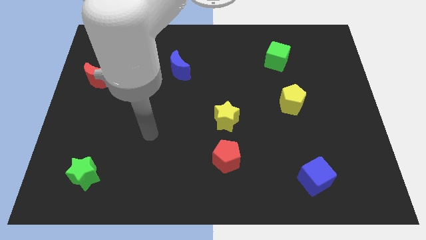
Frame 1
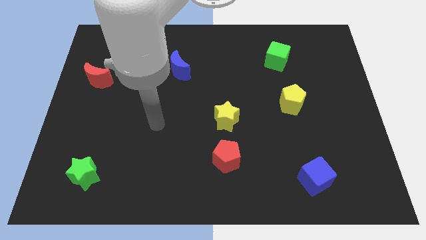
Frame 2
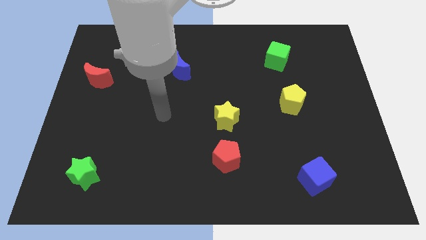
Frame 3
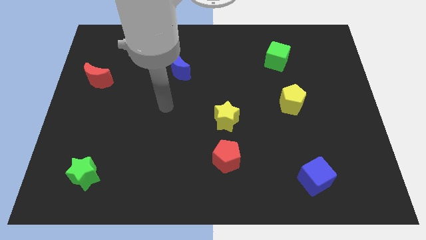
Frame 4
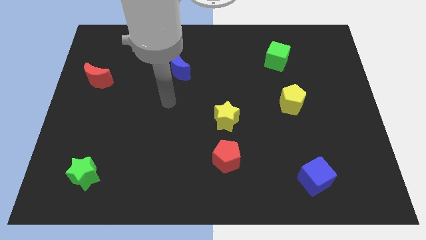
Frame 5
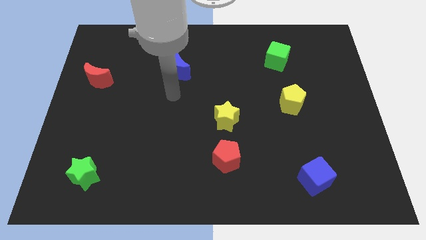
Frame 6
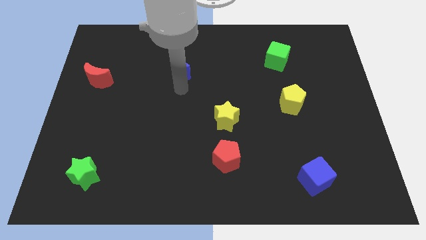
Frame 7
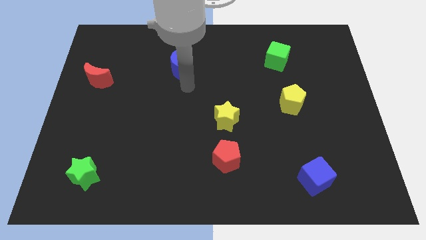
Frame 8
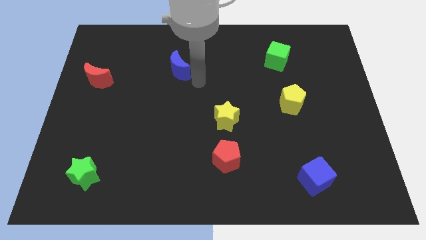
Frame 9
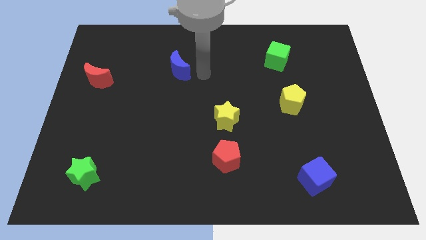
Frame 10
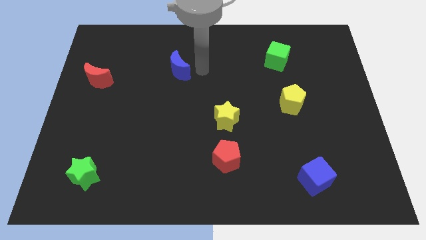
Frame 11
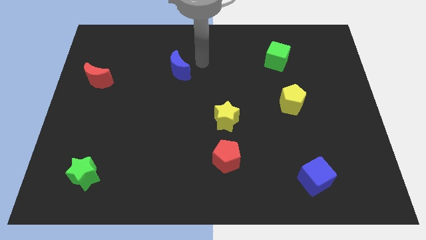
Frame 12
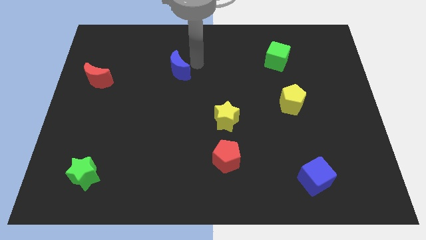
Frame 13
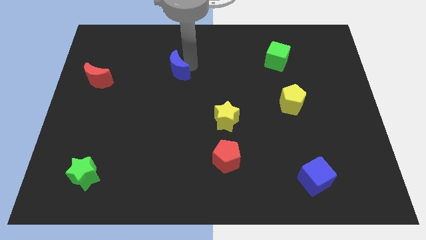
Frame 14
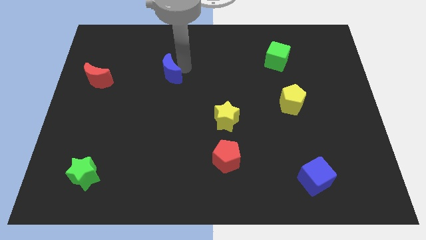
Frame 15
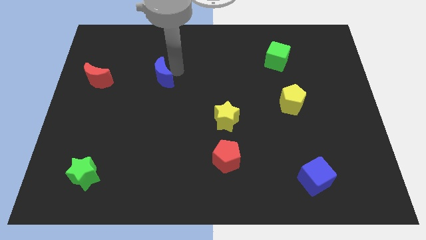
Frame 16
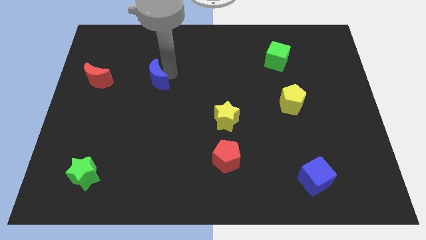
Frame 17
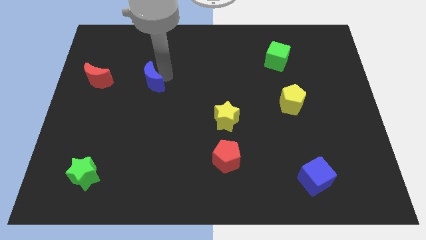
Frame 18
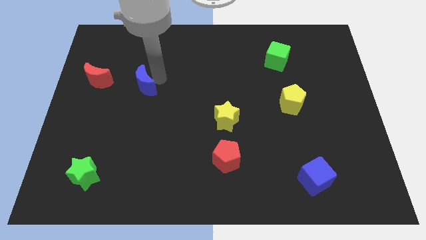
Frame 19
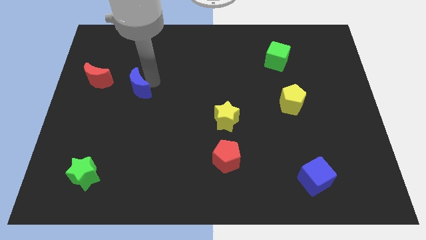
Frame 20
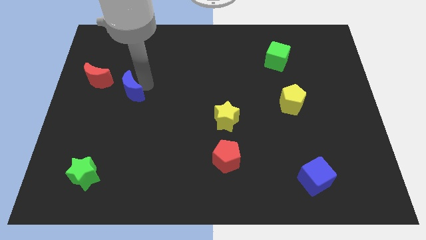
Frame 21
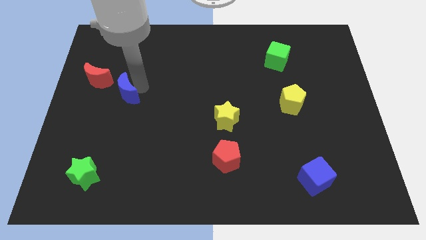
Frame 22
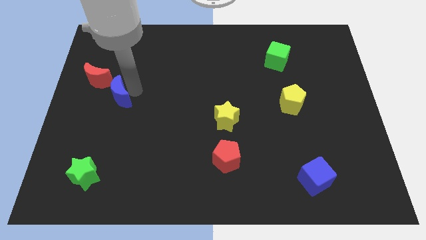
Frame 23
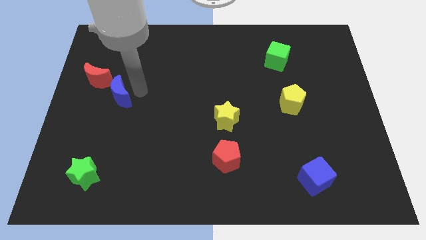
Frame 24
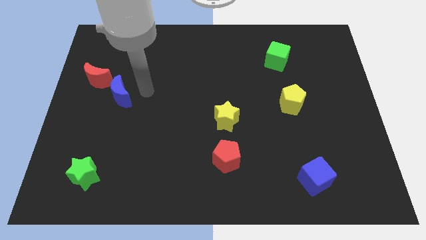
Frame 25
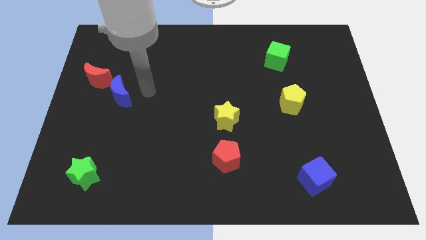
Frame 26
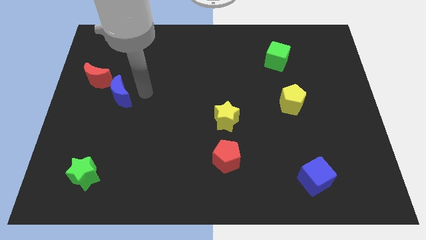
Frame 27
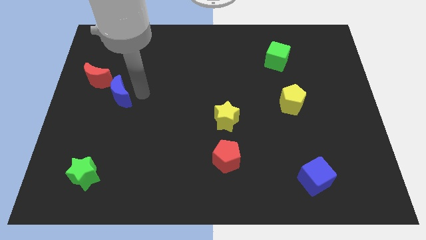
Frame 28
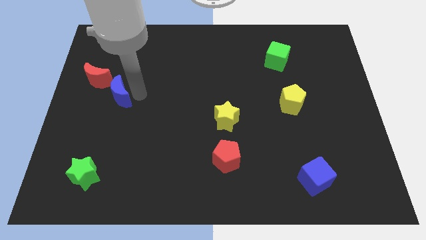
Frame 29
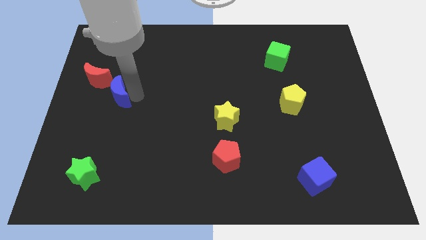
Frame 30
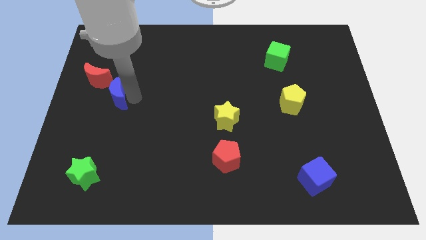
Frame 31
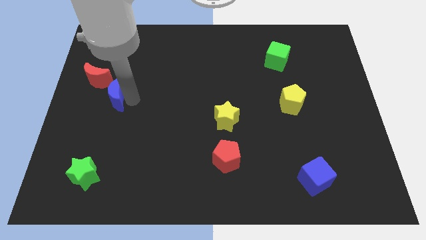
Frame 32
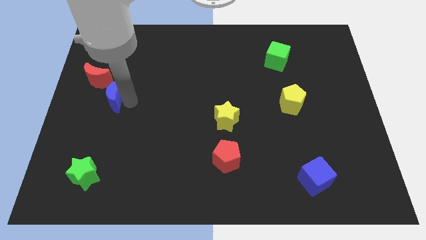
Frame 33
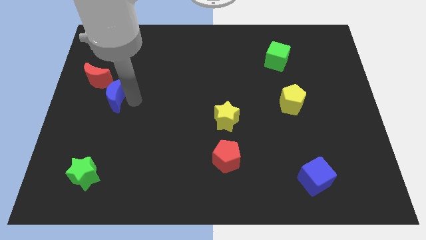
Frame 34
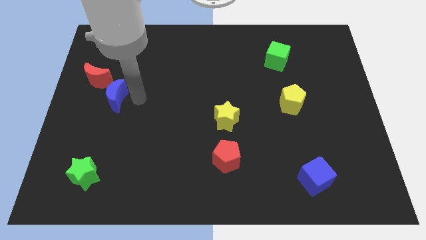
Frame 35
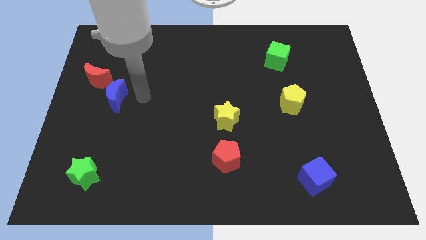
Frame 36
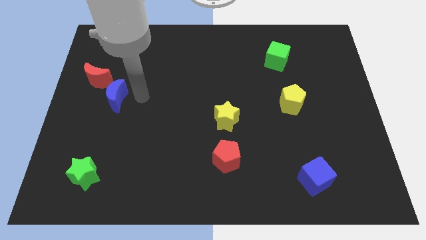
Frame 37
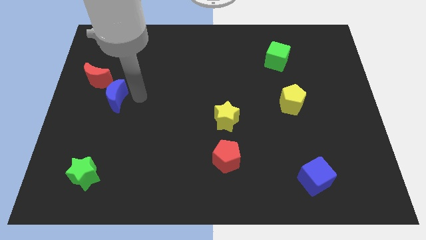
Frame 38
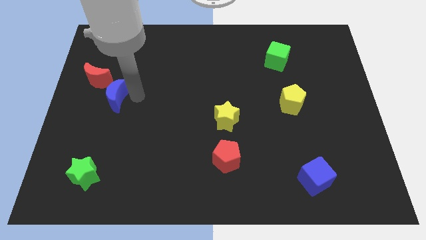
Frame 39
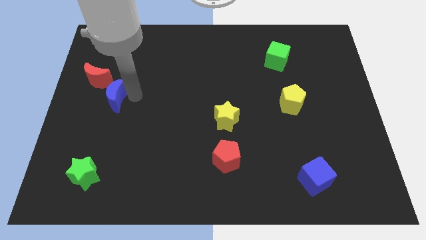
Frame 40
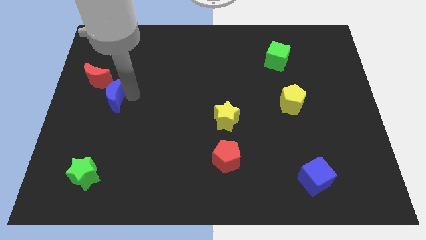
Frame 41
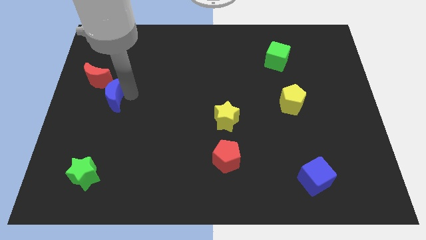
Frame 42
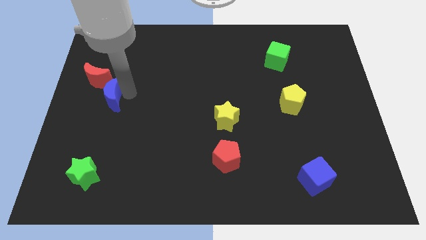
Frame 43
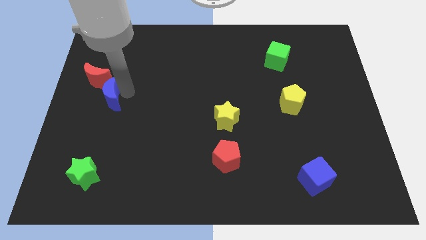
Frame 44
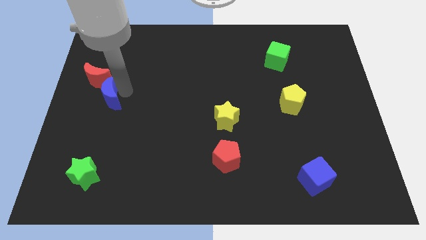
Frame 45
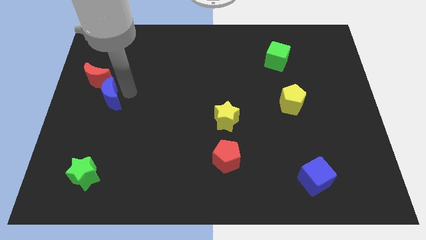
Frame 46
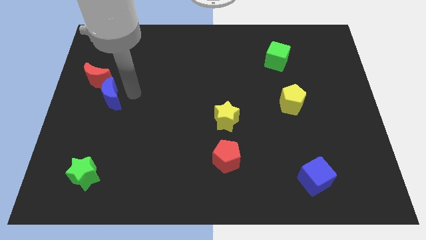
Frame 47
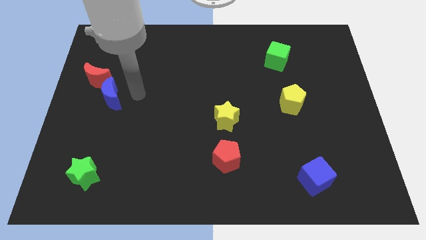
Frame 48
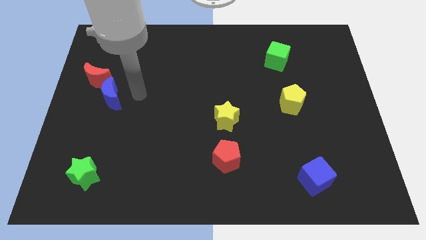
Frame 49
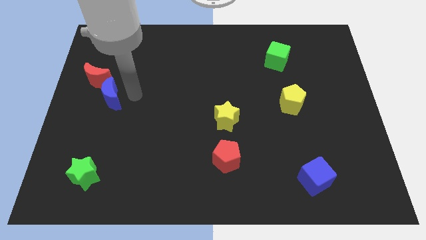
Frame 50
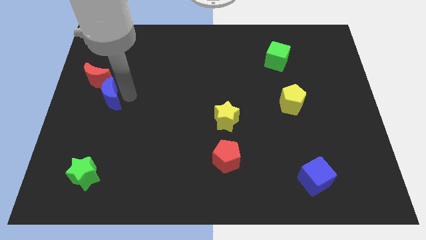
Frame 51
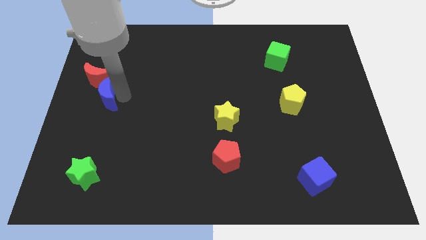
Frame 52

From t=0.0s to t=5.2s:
put the blue moon to the center left
